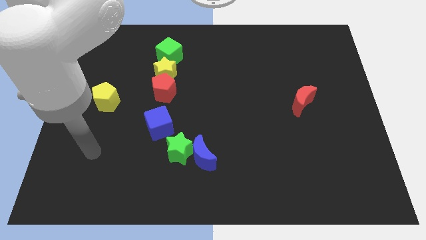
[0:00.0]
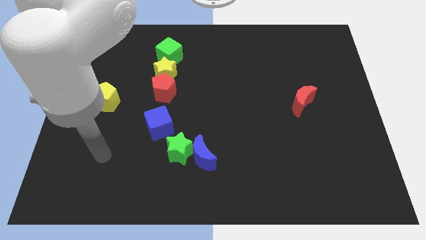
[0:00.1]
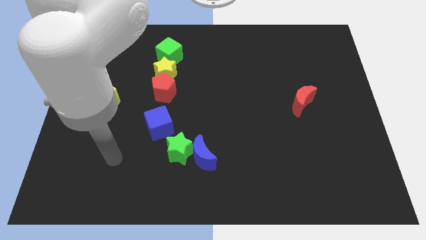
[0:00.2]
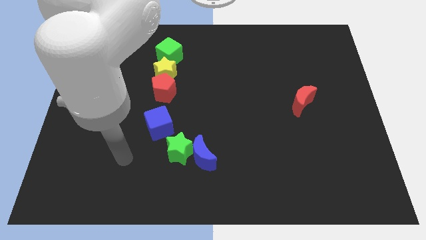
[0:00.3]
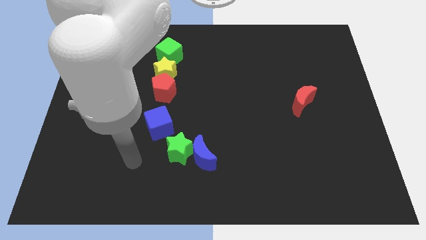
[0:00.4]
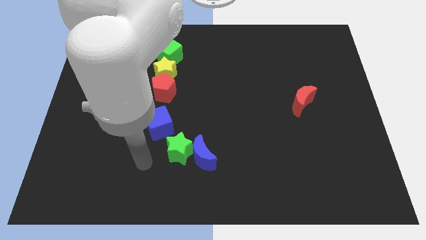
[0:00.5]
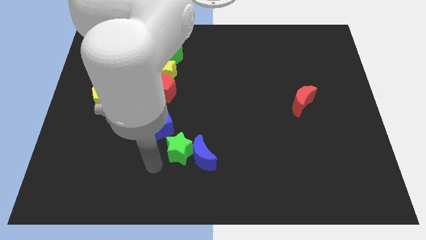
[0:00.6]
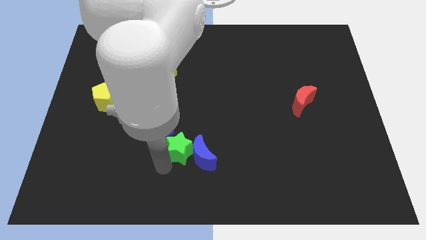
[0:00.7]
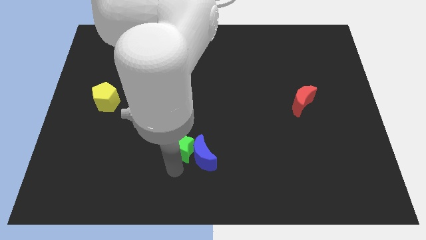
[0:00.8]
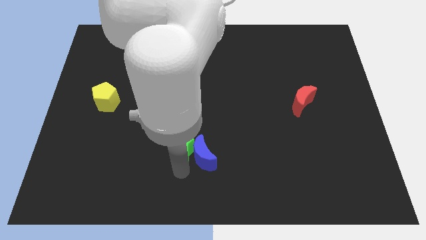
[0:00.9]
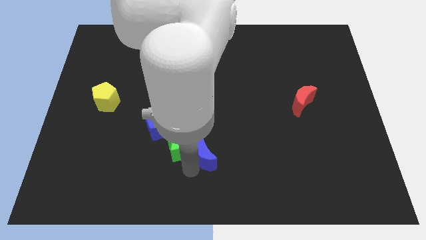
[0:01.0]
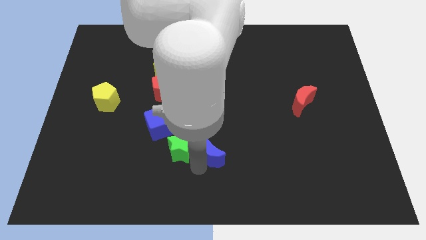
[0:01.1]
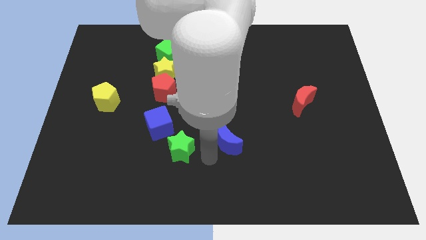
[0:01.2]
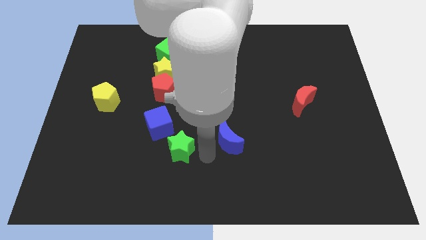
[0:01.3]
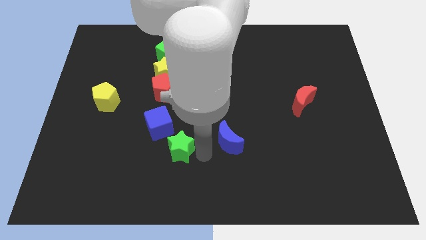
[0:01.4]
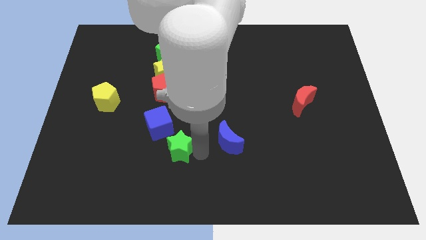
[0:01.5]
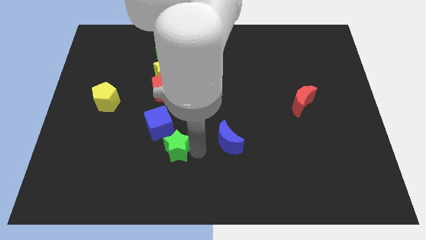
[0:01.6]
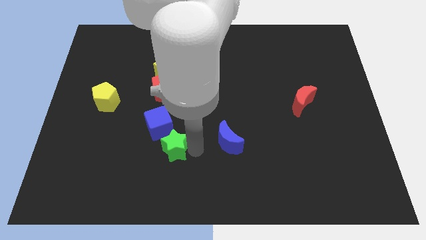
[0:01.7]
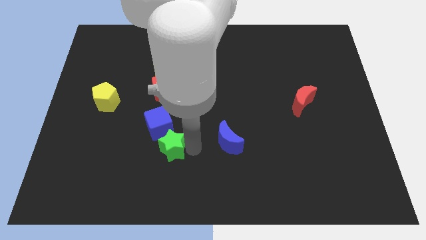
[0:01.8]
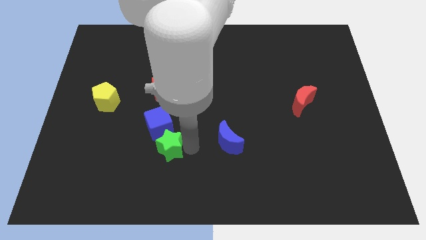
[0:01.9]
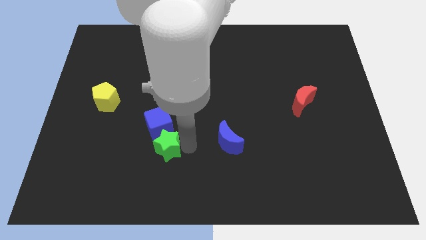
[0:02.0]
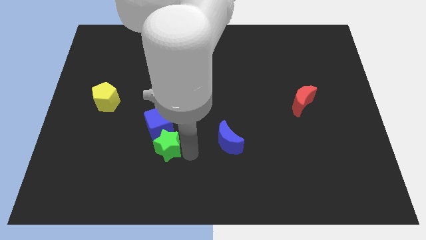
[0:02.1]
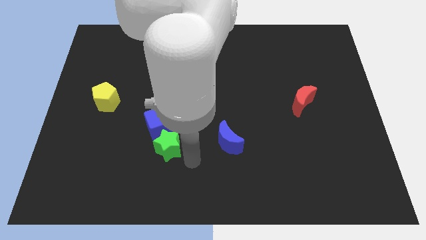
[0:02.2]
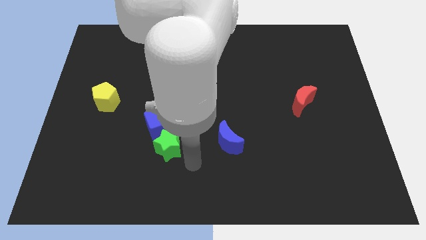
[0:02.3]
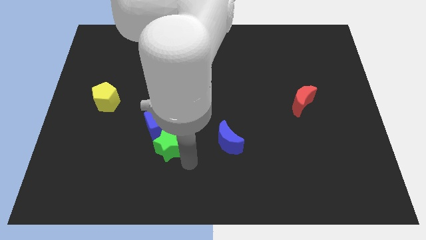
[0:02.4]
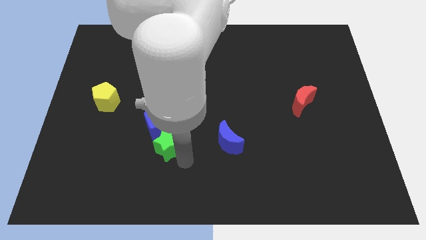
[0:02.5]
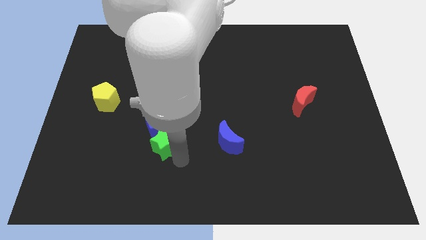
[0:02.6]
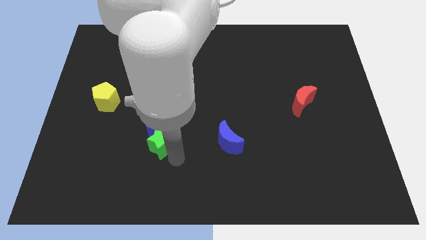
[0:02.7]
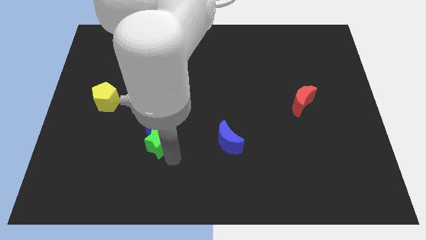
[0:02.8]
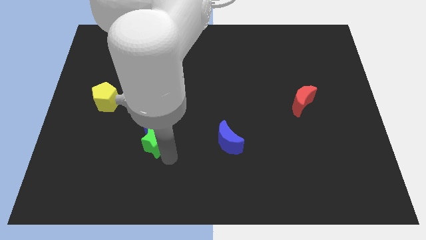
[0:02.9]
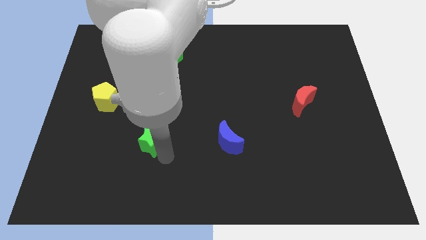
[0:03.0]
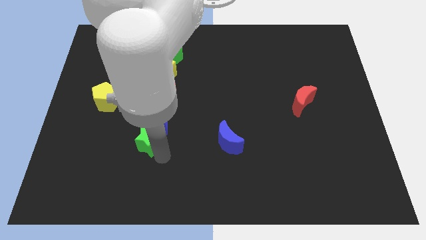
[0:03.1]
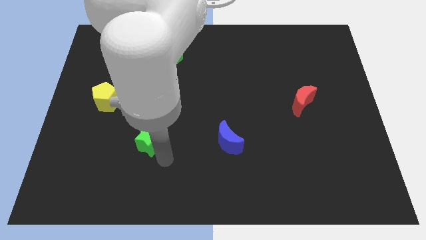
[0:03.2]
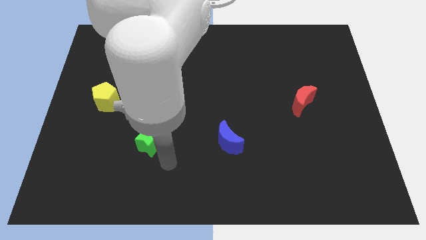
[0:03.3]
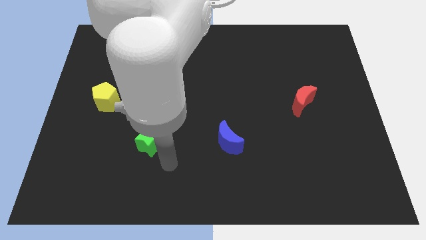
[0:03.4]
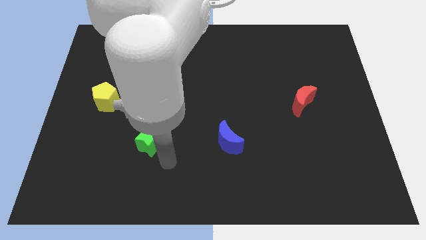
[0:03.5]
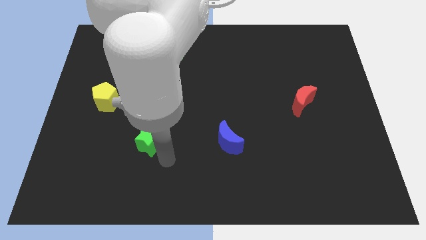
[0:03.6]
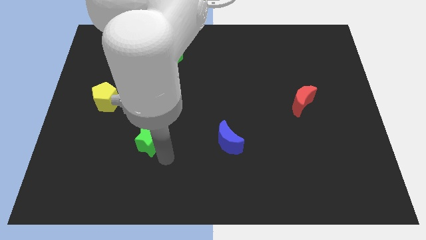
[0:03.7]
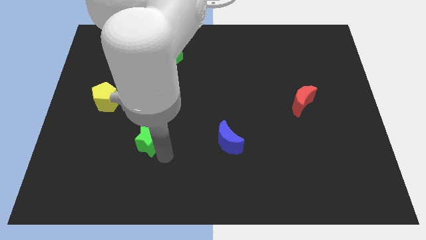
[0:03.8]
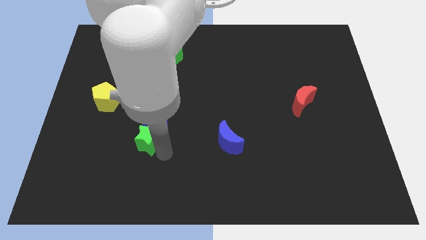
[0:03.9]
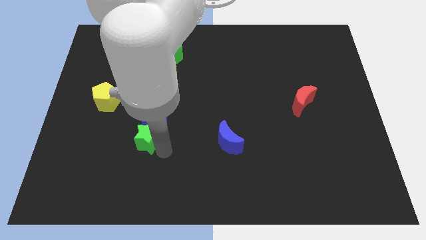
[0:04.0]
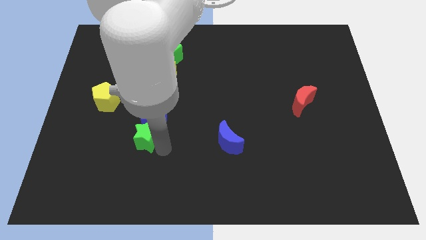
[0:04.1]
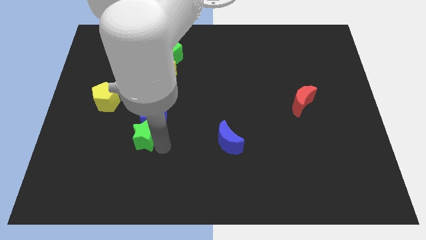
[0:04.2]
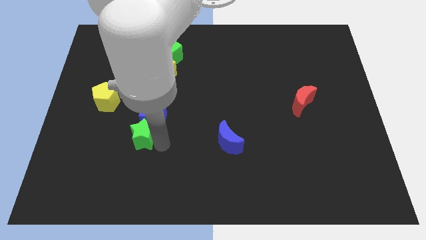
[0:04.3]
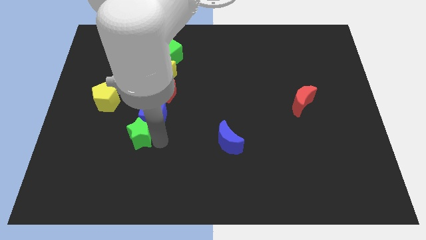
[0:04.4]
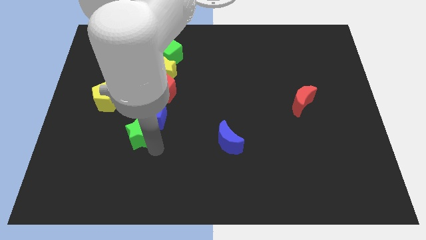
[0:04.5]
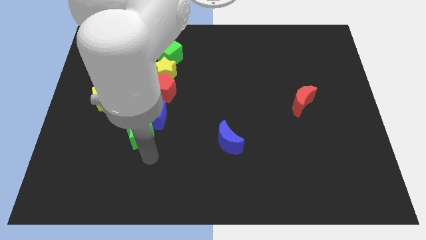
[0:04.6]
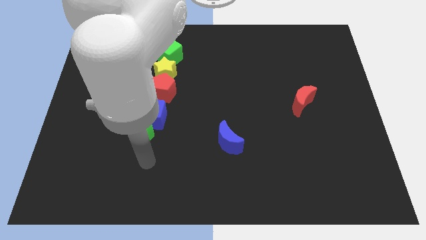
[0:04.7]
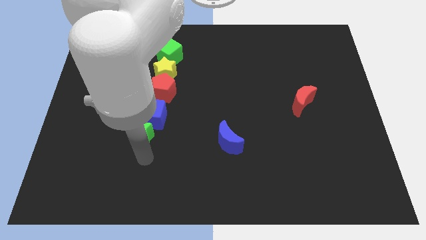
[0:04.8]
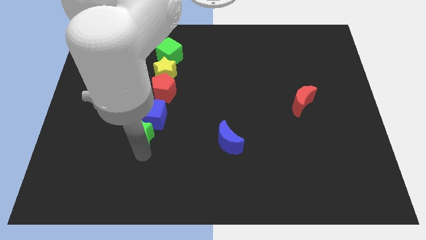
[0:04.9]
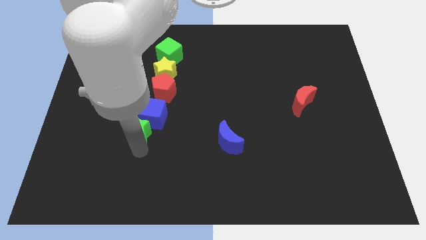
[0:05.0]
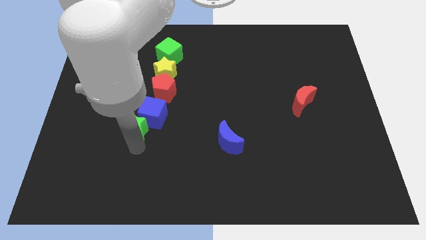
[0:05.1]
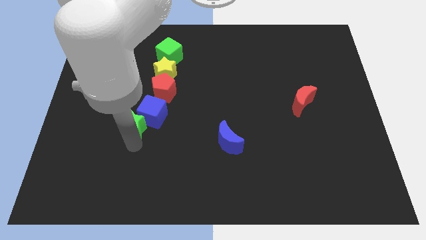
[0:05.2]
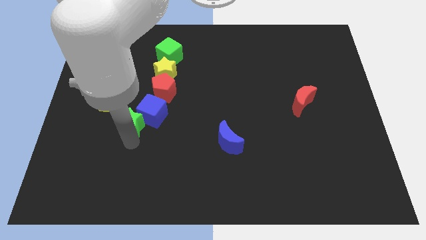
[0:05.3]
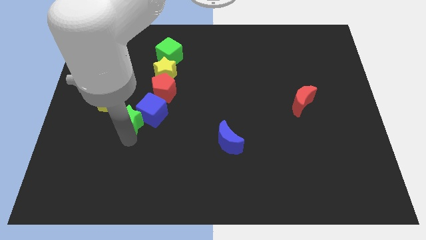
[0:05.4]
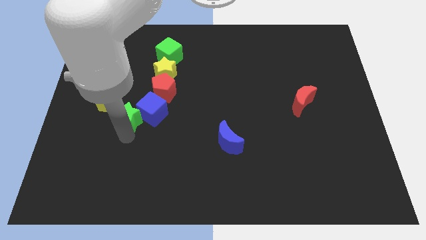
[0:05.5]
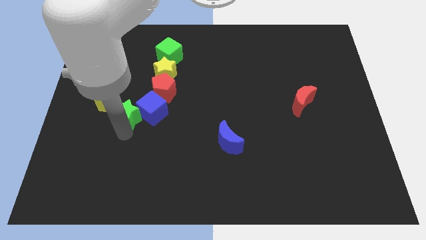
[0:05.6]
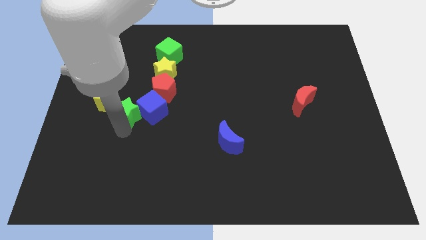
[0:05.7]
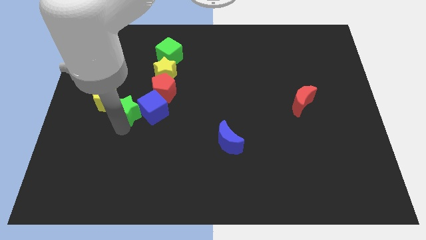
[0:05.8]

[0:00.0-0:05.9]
slide the green star to the top left side of the blue cube

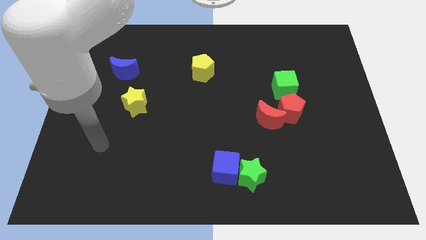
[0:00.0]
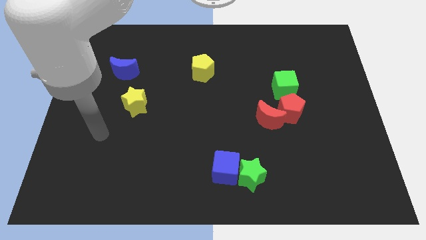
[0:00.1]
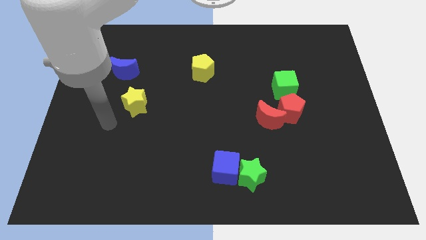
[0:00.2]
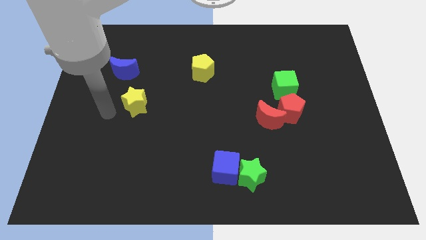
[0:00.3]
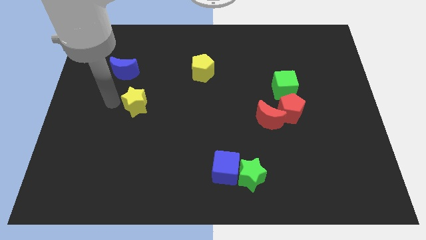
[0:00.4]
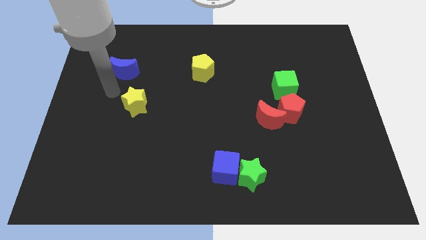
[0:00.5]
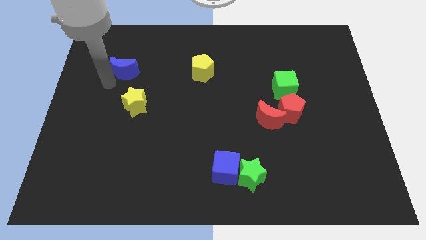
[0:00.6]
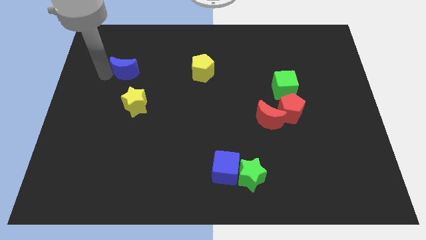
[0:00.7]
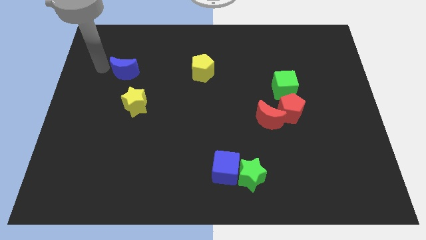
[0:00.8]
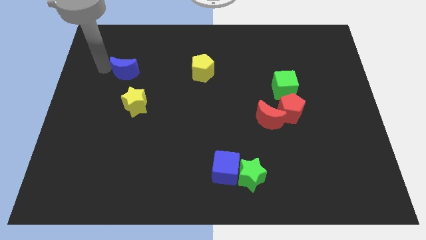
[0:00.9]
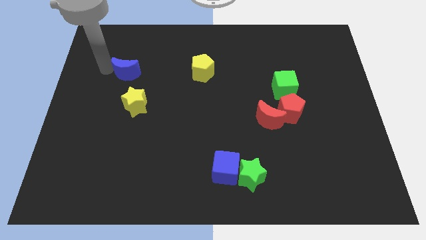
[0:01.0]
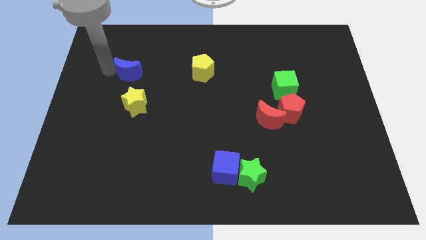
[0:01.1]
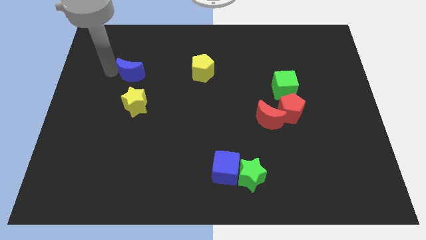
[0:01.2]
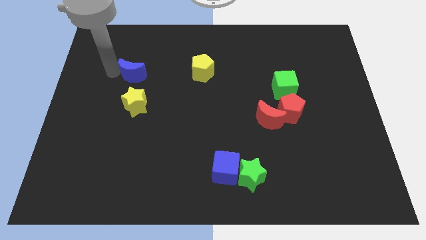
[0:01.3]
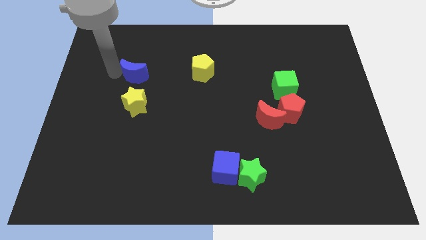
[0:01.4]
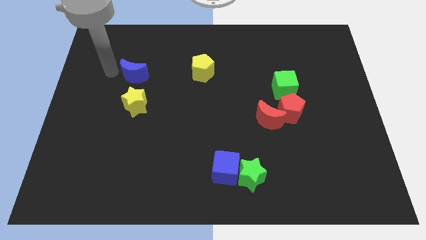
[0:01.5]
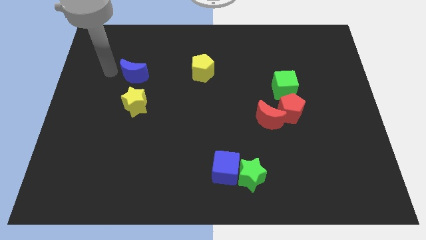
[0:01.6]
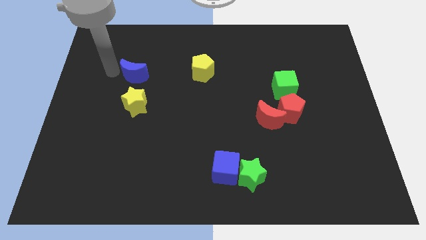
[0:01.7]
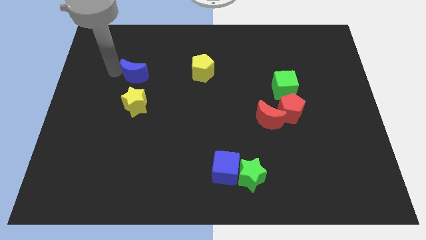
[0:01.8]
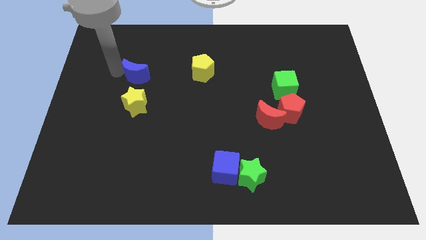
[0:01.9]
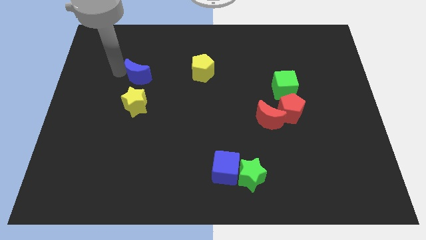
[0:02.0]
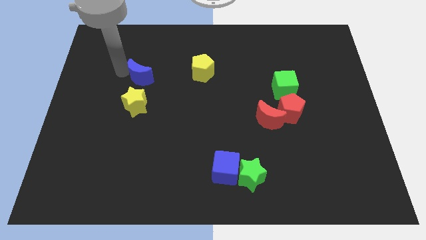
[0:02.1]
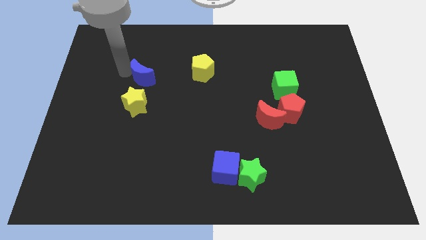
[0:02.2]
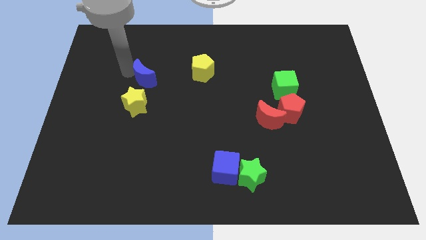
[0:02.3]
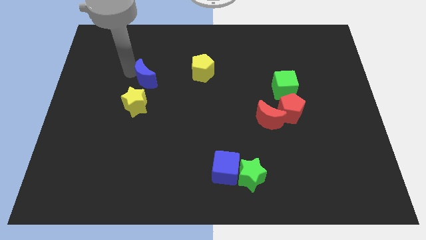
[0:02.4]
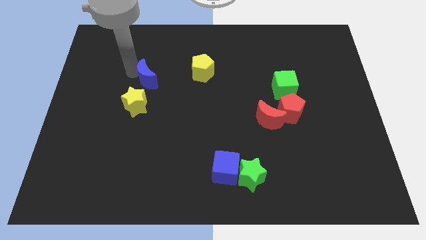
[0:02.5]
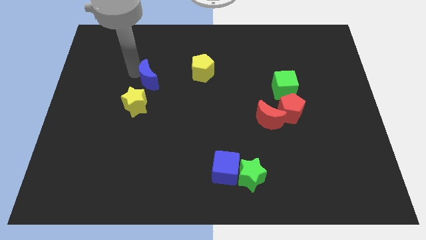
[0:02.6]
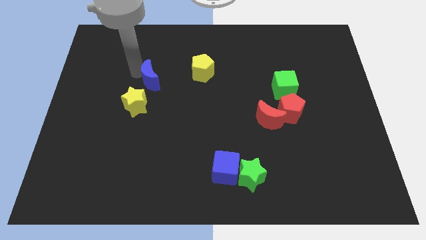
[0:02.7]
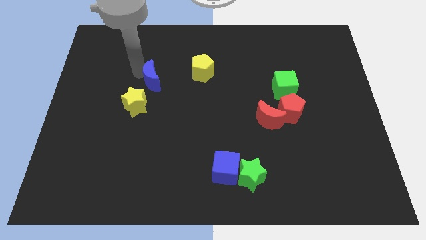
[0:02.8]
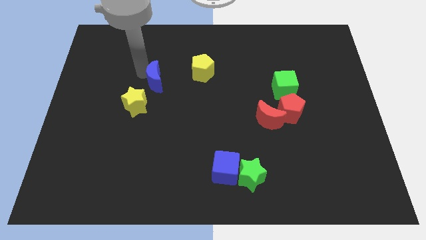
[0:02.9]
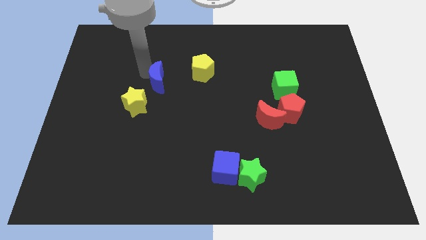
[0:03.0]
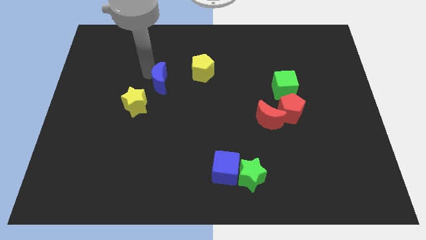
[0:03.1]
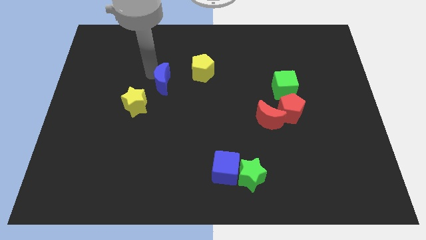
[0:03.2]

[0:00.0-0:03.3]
slide the blue moon diagonally down and to the left of the yellow pentagon
